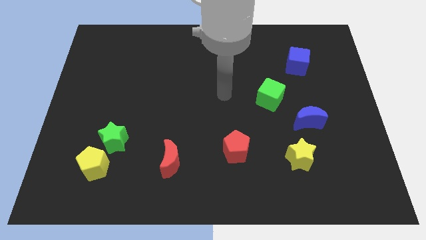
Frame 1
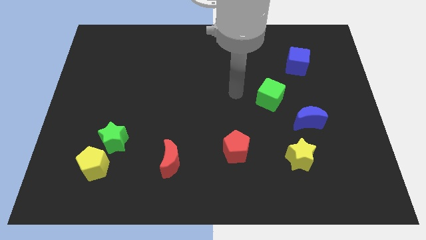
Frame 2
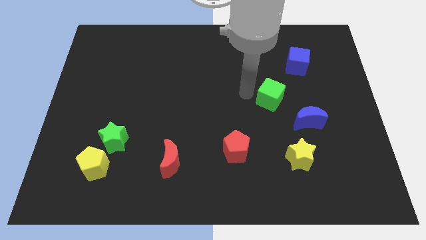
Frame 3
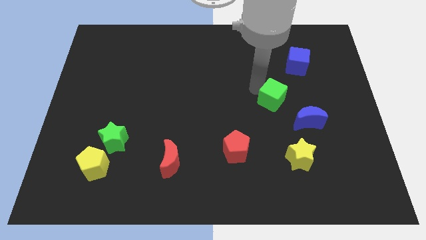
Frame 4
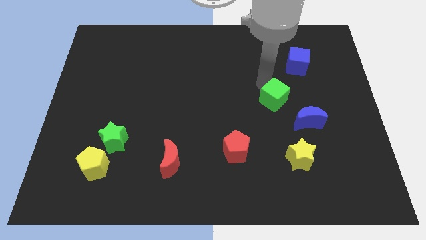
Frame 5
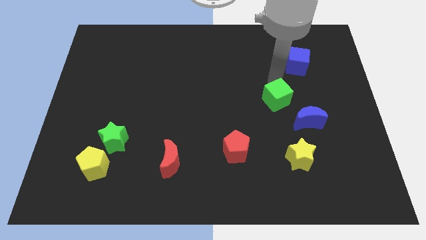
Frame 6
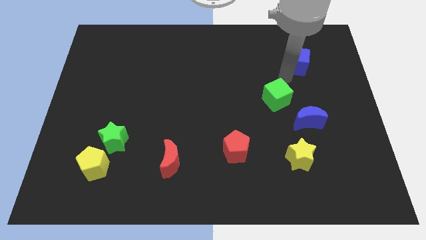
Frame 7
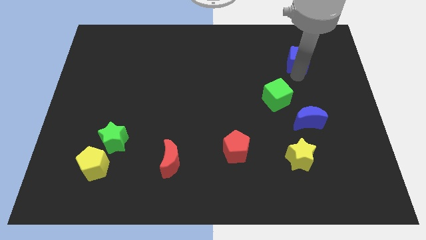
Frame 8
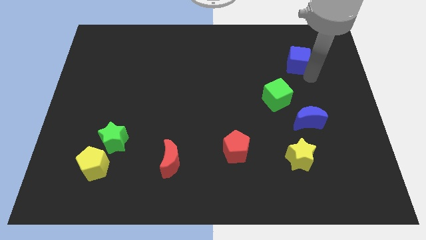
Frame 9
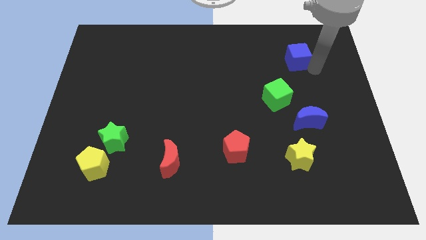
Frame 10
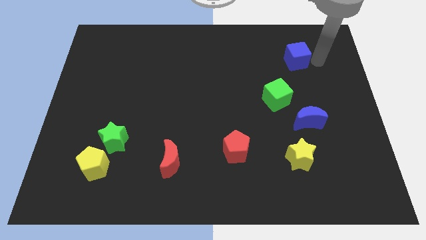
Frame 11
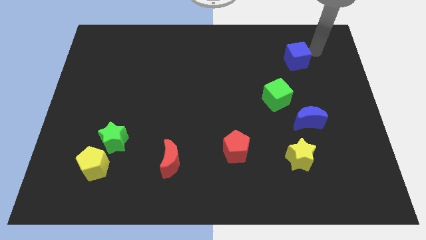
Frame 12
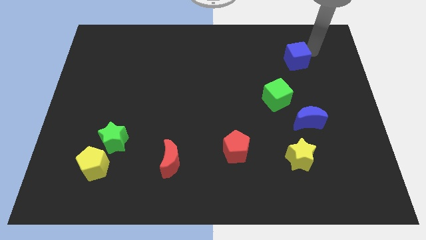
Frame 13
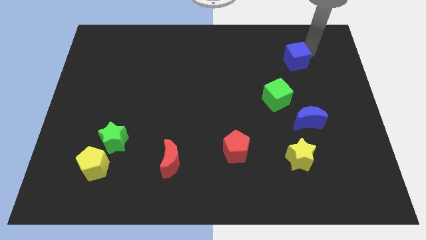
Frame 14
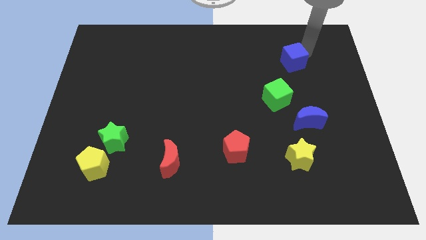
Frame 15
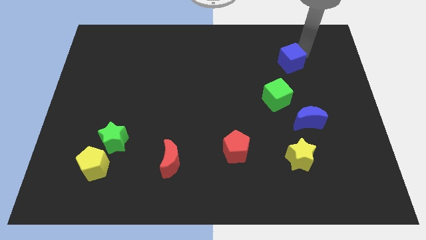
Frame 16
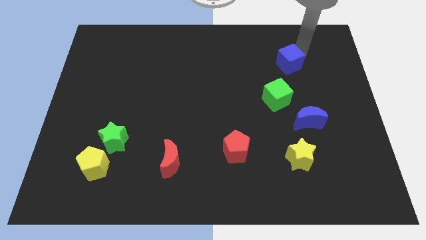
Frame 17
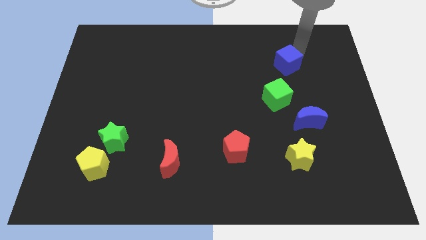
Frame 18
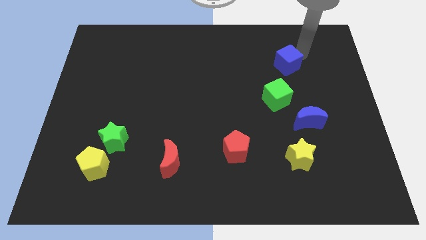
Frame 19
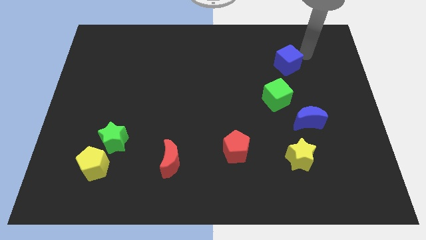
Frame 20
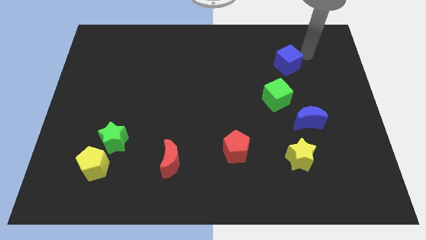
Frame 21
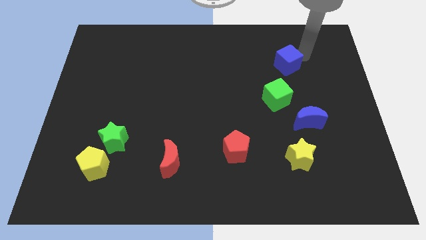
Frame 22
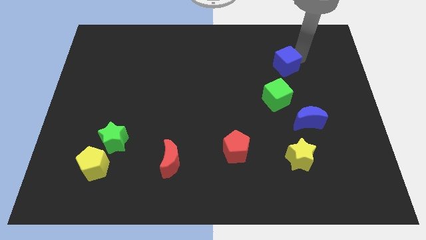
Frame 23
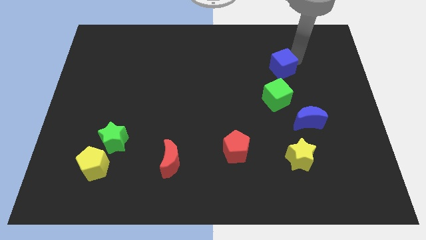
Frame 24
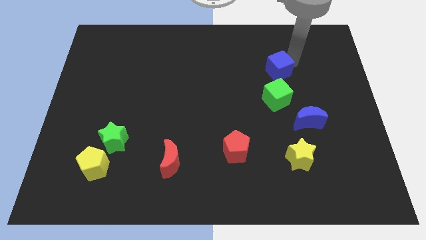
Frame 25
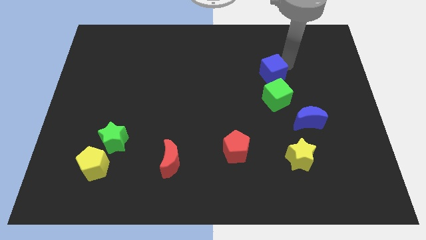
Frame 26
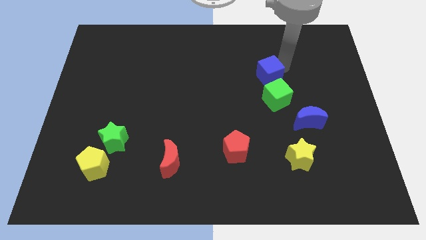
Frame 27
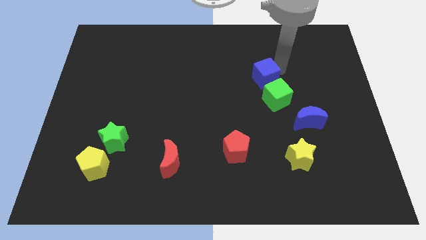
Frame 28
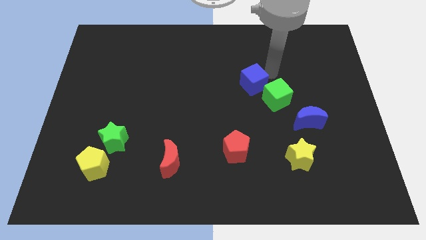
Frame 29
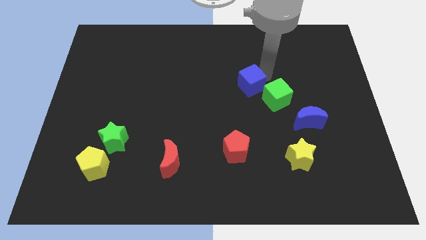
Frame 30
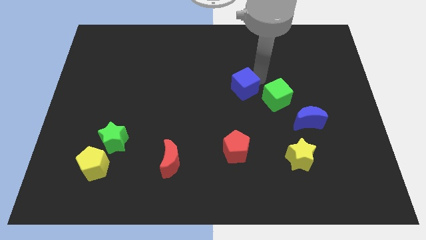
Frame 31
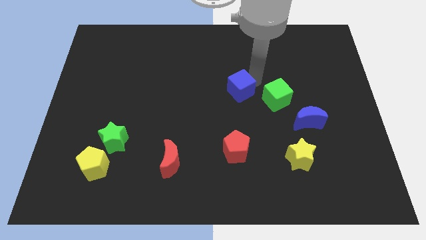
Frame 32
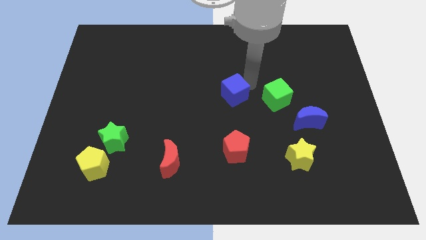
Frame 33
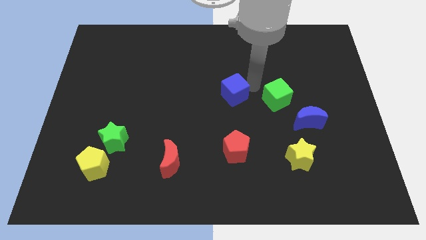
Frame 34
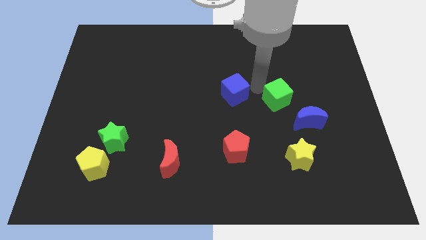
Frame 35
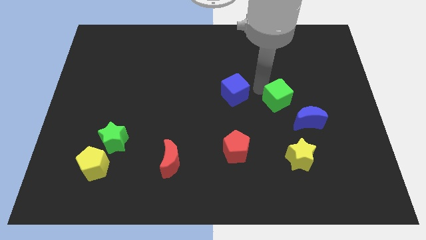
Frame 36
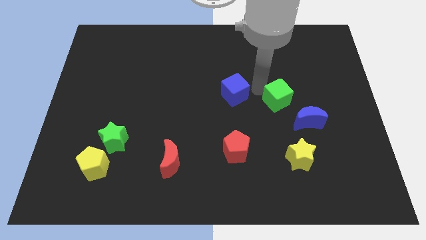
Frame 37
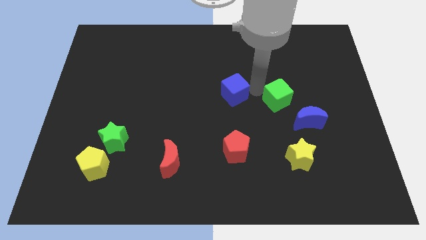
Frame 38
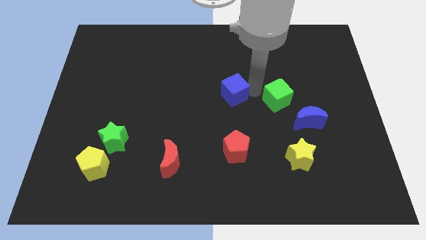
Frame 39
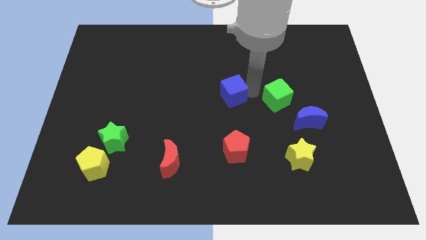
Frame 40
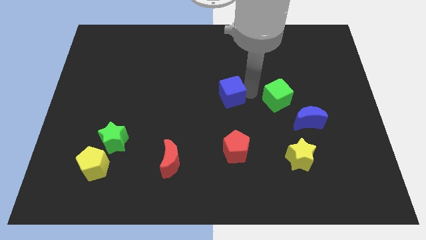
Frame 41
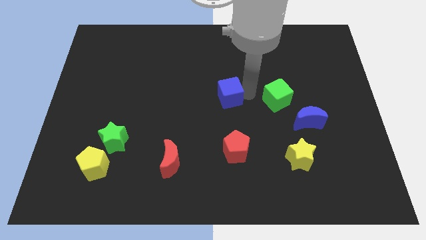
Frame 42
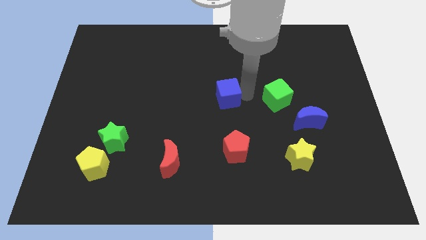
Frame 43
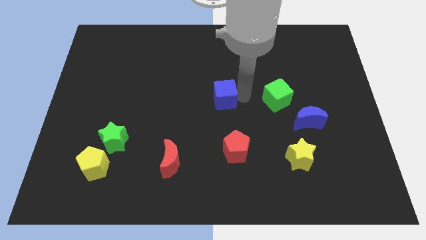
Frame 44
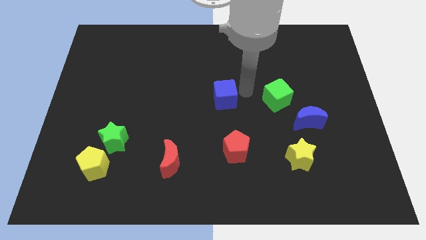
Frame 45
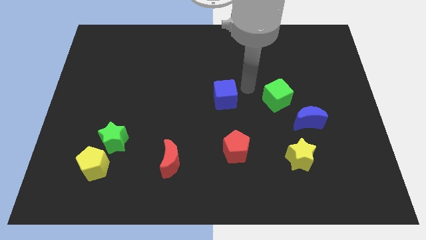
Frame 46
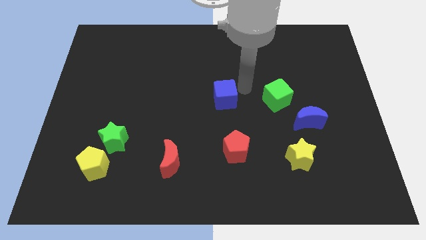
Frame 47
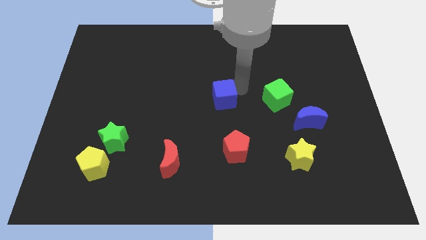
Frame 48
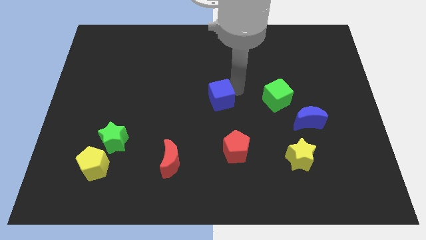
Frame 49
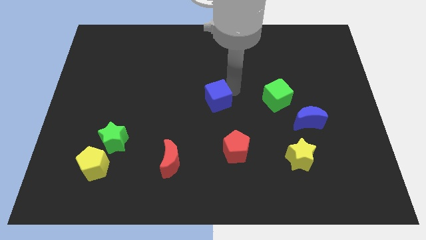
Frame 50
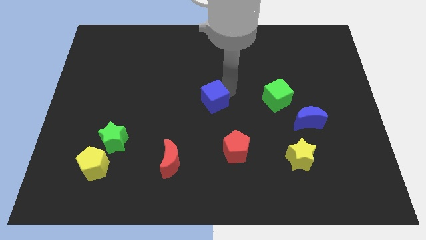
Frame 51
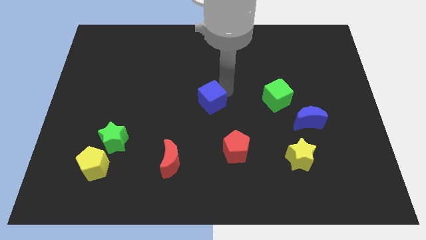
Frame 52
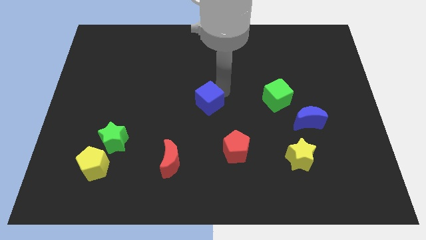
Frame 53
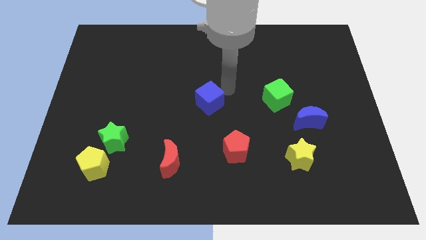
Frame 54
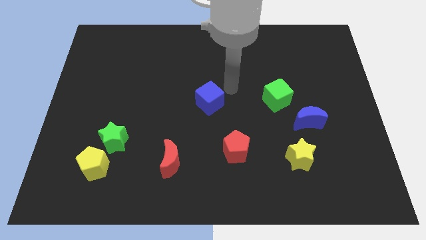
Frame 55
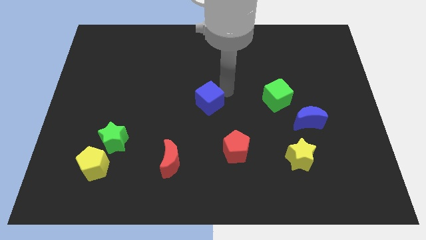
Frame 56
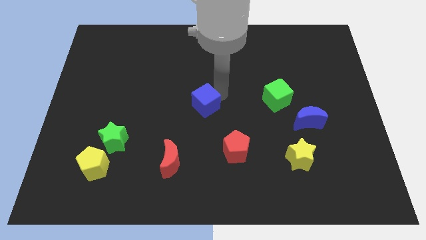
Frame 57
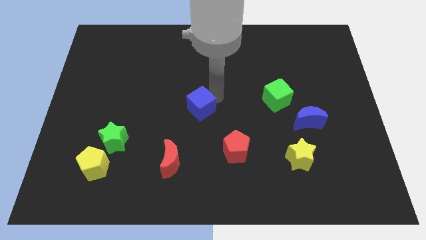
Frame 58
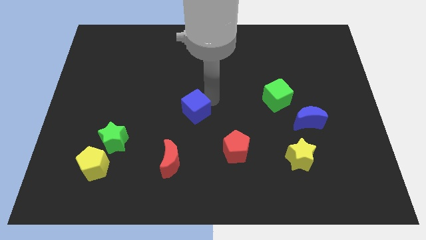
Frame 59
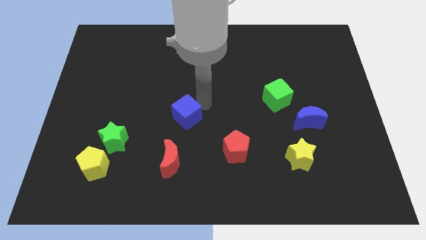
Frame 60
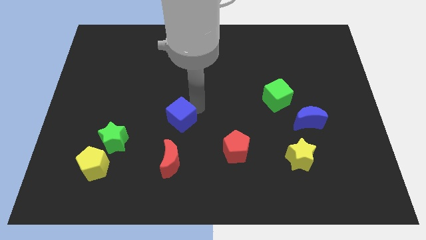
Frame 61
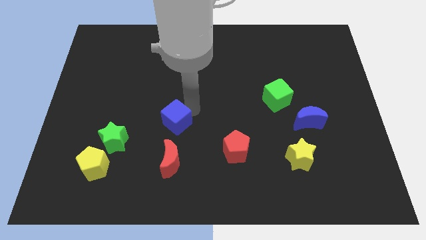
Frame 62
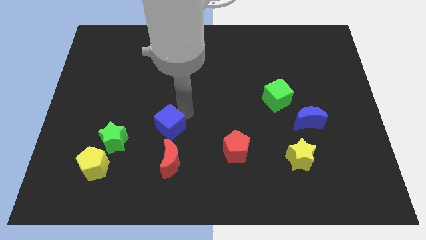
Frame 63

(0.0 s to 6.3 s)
move the blue cube just right of the green star
